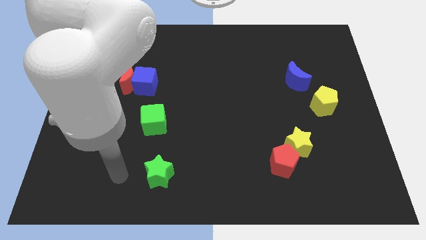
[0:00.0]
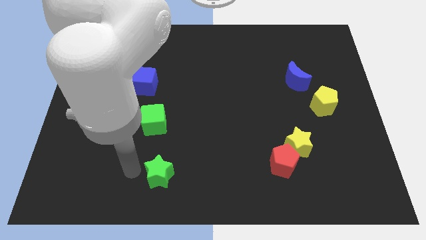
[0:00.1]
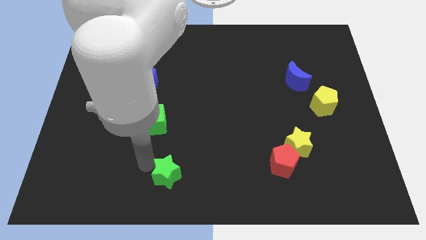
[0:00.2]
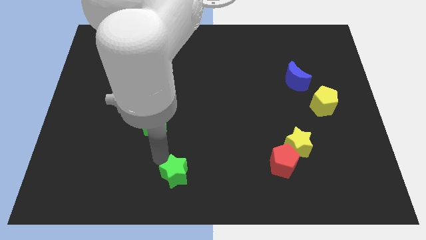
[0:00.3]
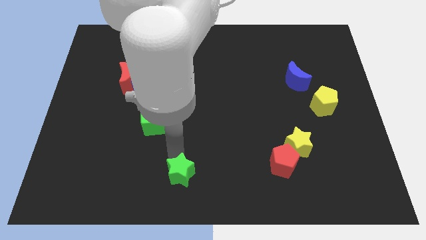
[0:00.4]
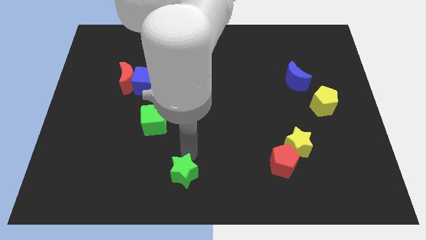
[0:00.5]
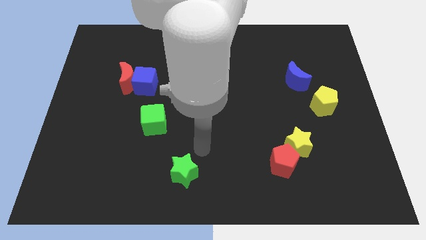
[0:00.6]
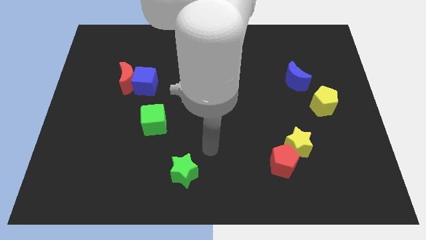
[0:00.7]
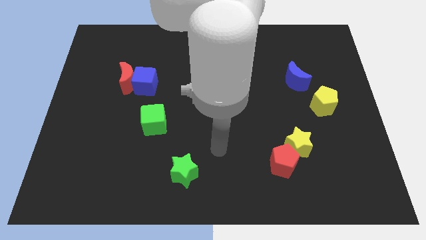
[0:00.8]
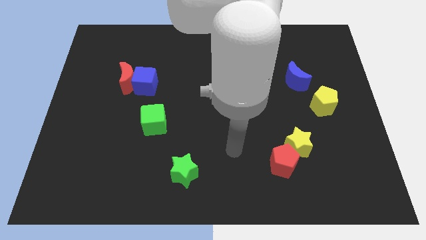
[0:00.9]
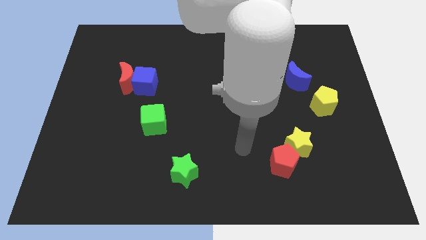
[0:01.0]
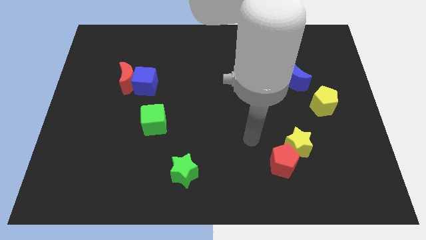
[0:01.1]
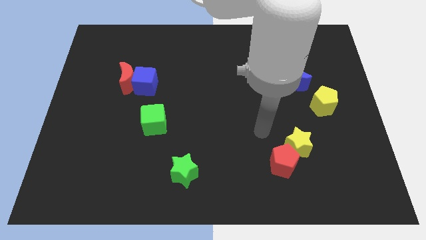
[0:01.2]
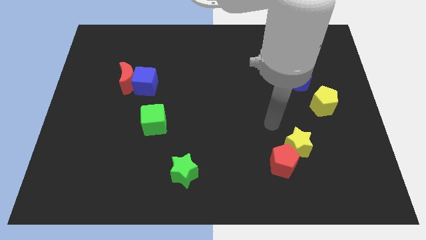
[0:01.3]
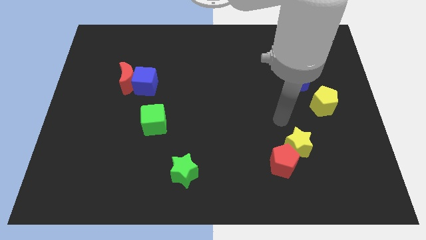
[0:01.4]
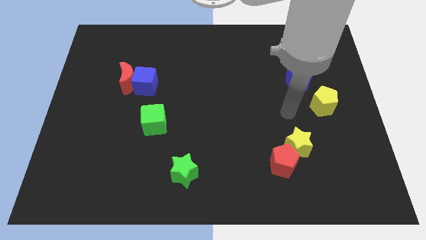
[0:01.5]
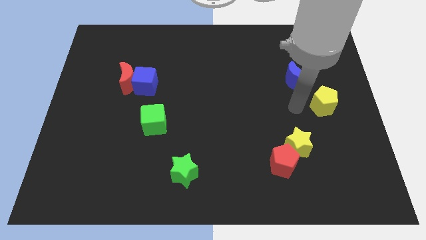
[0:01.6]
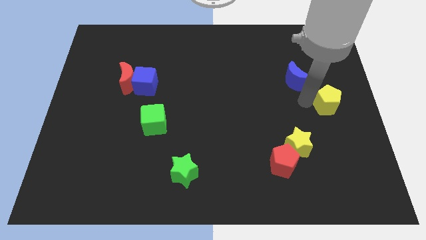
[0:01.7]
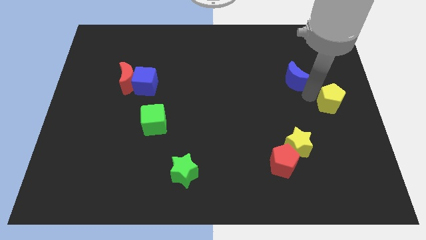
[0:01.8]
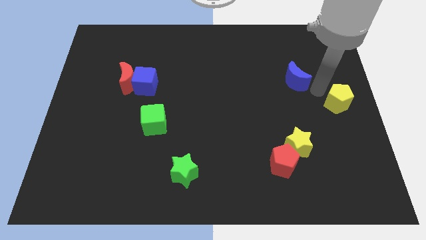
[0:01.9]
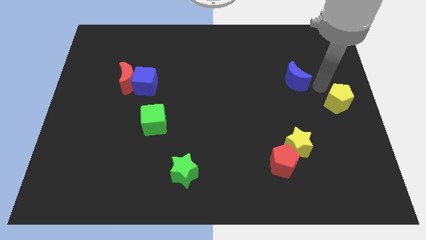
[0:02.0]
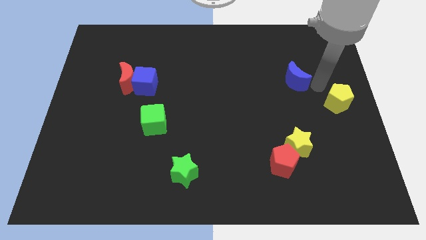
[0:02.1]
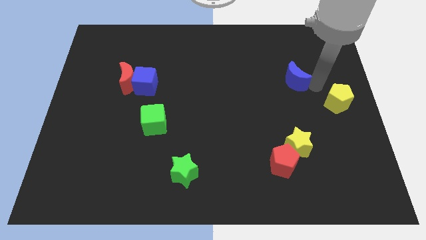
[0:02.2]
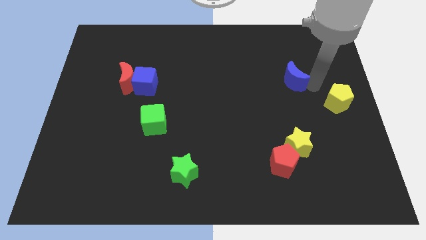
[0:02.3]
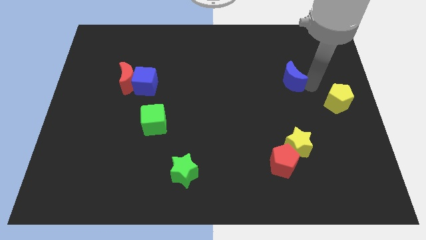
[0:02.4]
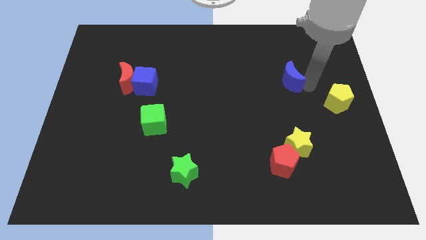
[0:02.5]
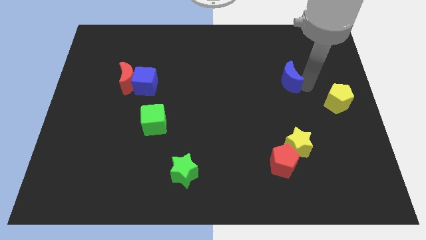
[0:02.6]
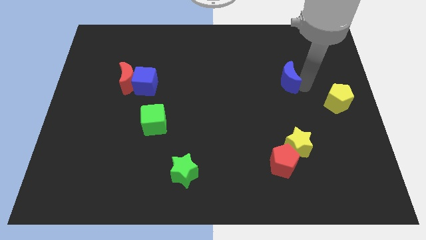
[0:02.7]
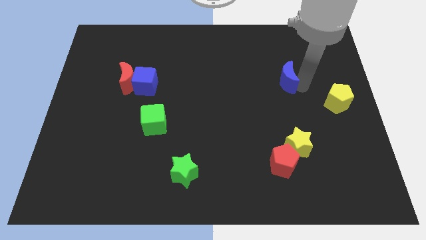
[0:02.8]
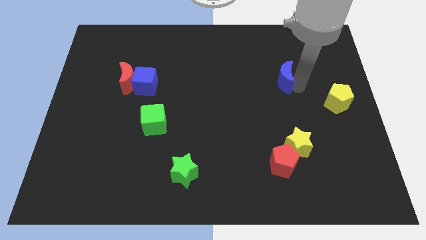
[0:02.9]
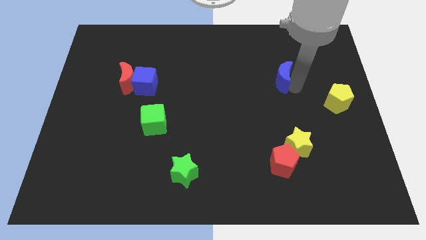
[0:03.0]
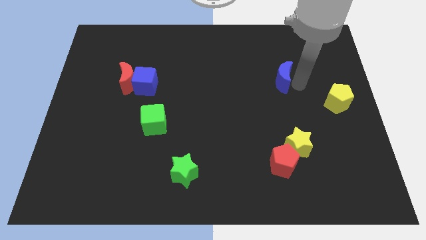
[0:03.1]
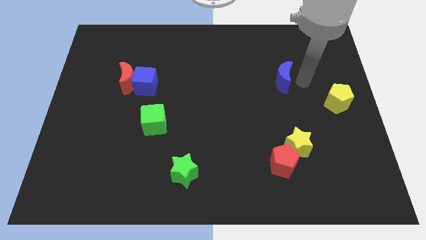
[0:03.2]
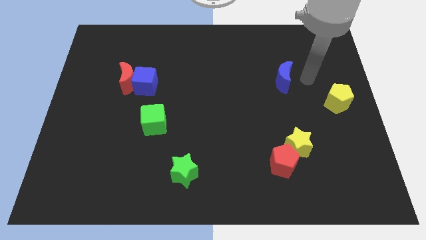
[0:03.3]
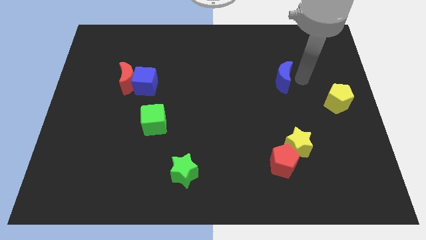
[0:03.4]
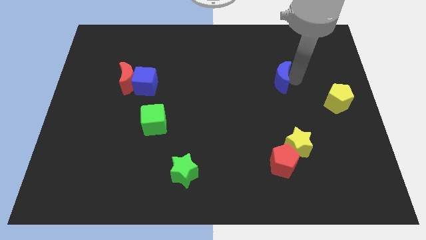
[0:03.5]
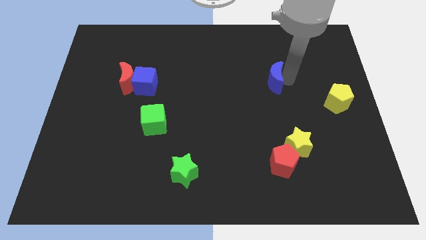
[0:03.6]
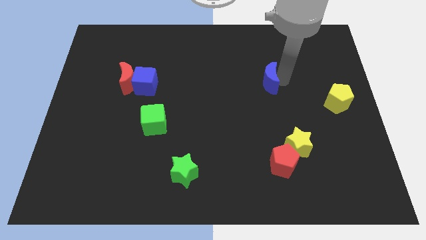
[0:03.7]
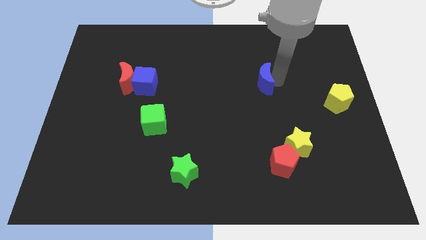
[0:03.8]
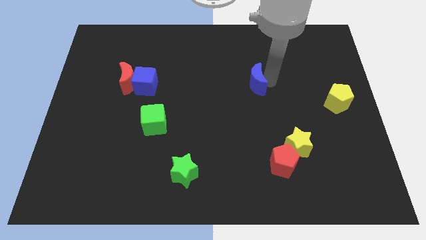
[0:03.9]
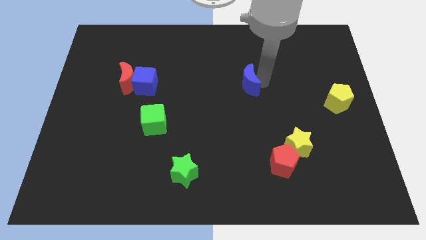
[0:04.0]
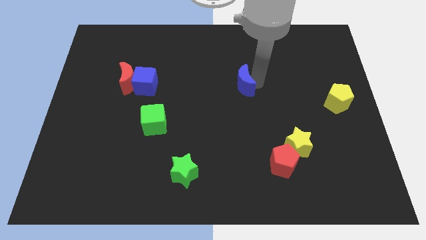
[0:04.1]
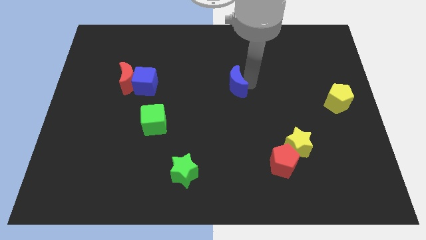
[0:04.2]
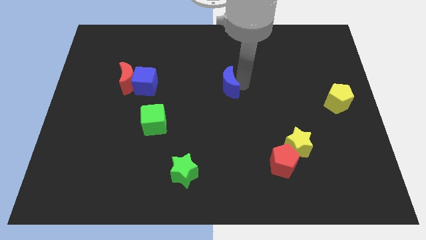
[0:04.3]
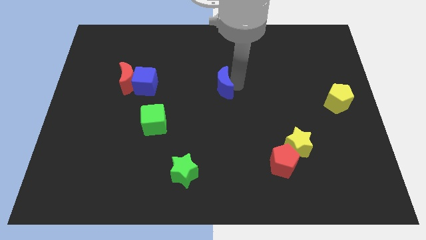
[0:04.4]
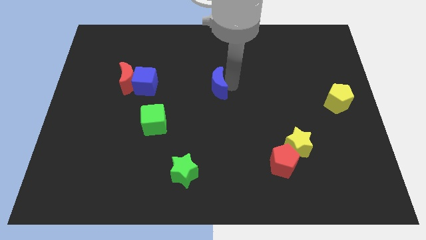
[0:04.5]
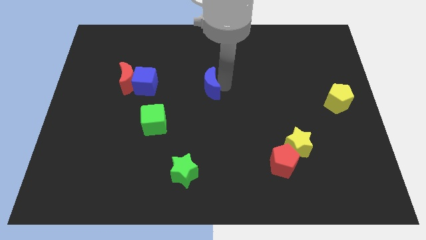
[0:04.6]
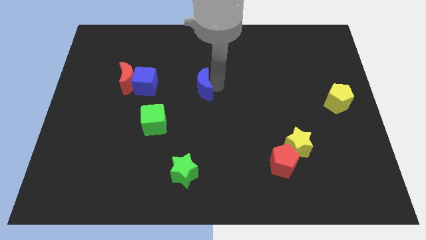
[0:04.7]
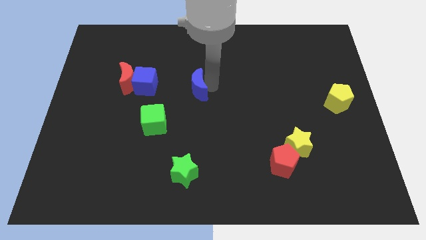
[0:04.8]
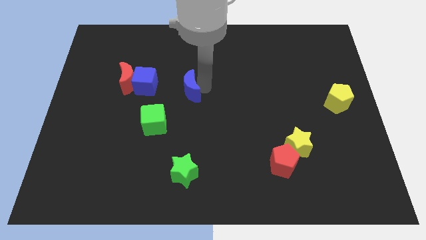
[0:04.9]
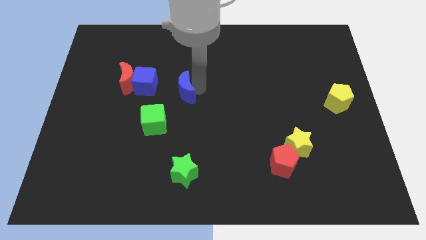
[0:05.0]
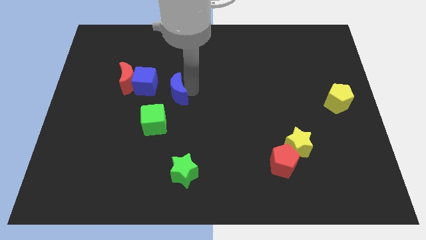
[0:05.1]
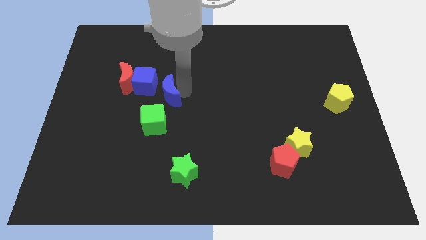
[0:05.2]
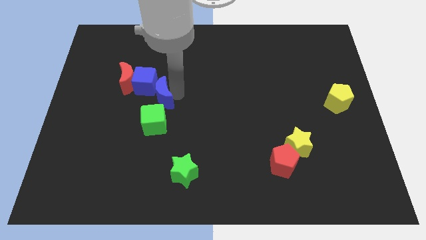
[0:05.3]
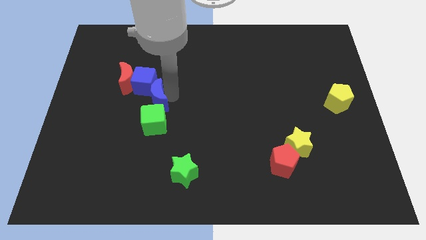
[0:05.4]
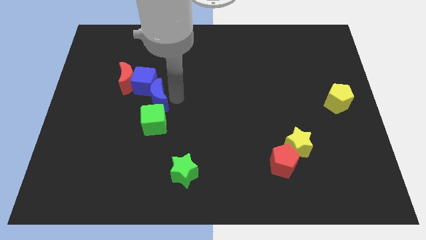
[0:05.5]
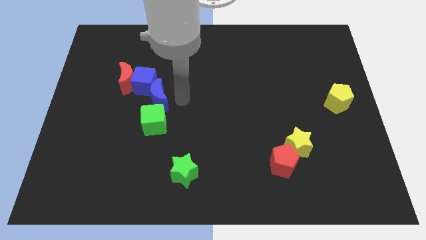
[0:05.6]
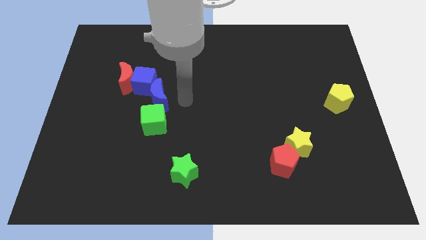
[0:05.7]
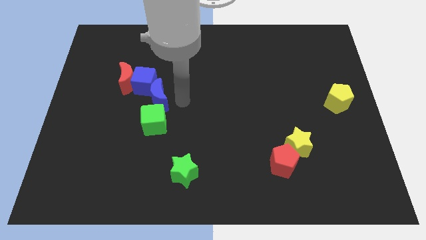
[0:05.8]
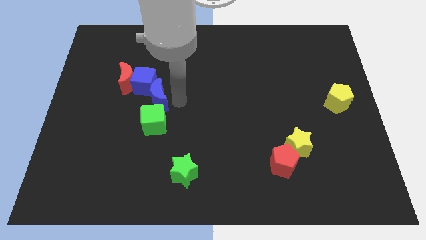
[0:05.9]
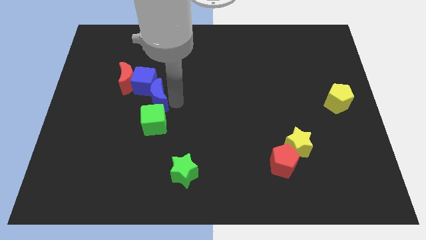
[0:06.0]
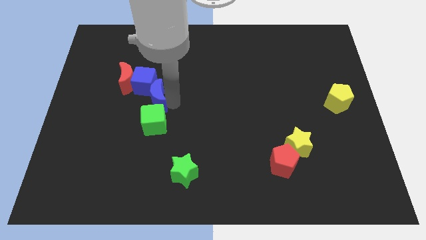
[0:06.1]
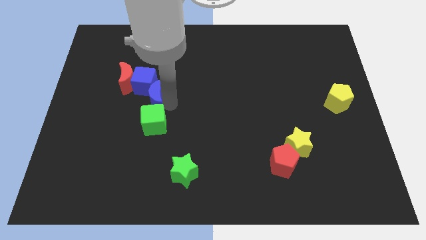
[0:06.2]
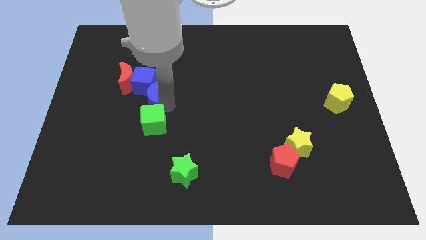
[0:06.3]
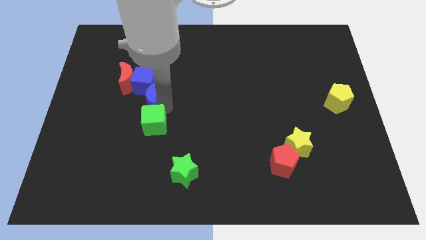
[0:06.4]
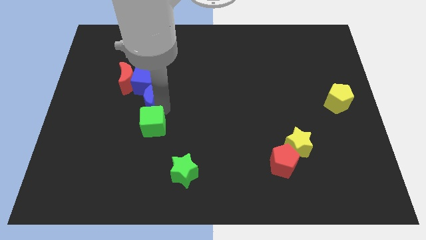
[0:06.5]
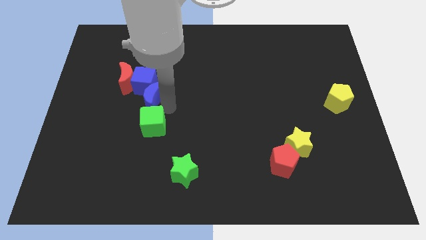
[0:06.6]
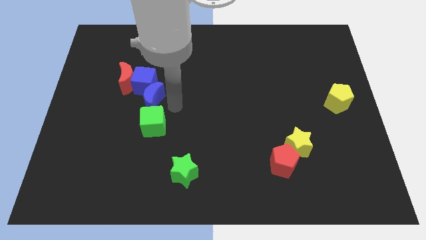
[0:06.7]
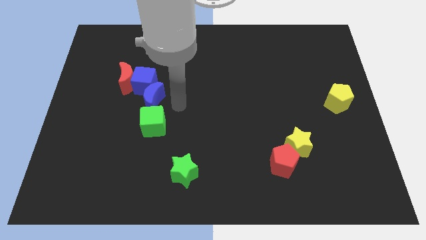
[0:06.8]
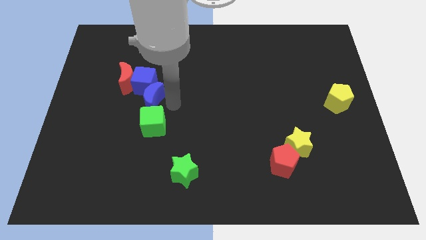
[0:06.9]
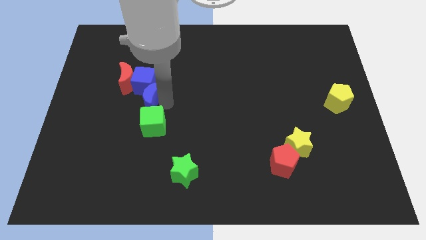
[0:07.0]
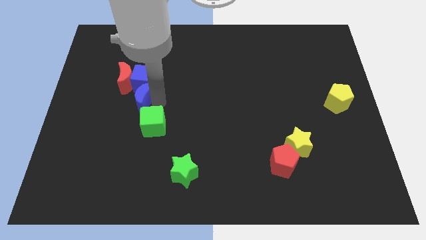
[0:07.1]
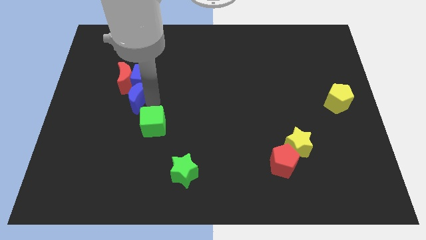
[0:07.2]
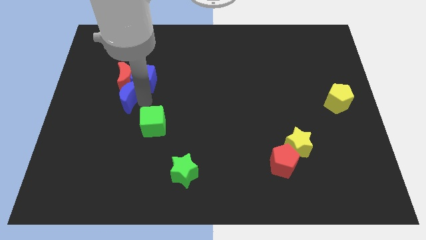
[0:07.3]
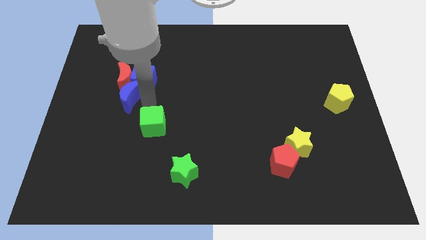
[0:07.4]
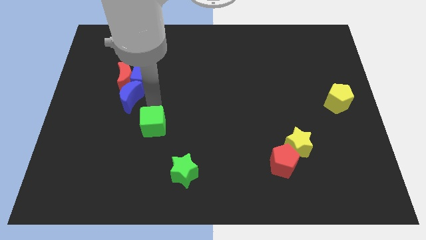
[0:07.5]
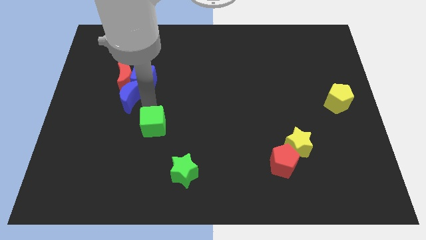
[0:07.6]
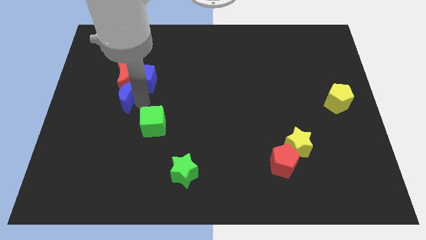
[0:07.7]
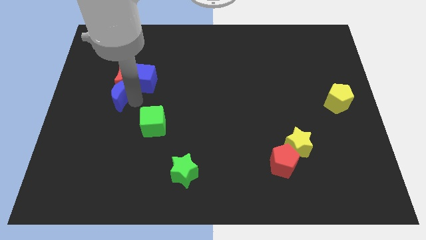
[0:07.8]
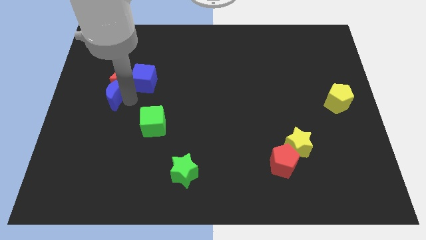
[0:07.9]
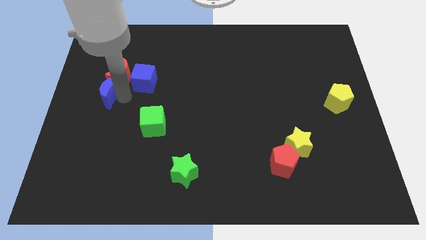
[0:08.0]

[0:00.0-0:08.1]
push the blue moon to the left side
